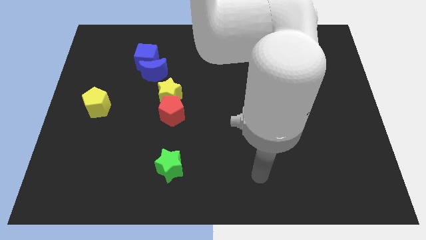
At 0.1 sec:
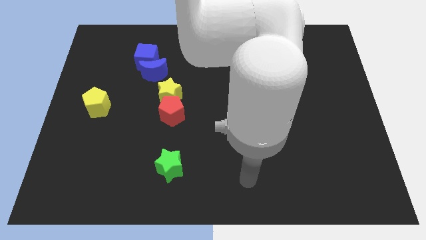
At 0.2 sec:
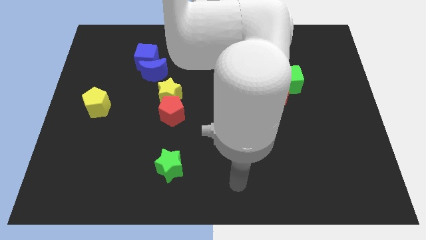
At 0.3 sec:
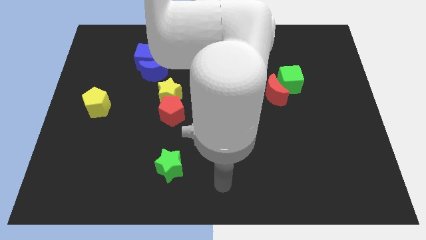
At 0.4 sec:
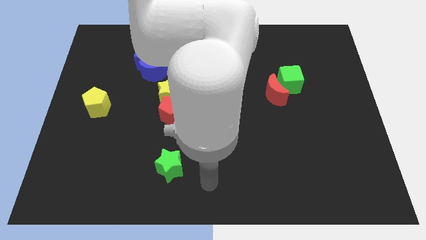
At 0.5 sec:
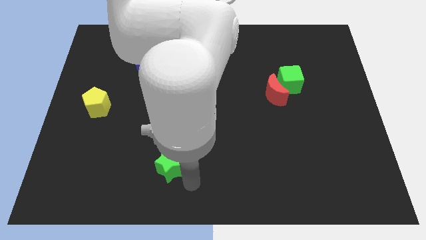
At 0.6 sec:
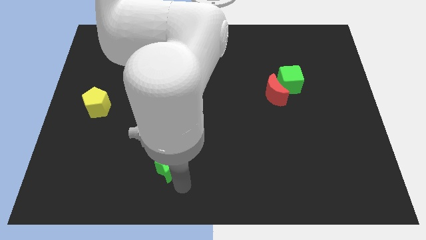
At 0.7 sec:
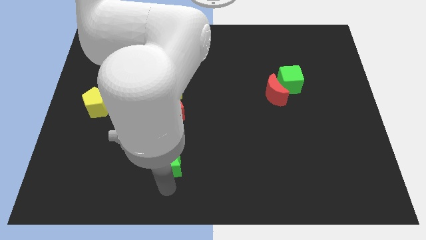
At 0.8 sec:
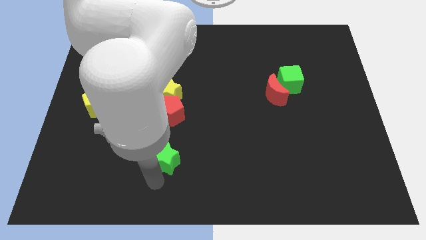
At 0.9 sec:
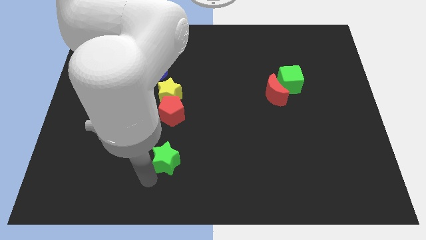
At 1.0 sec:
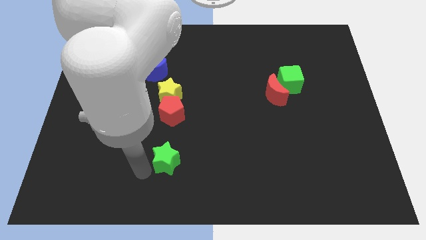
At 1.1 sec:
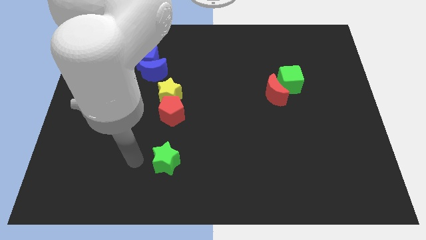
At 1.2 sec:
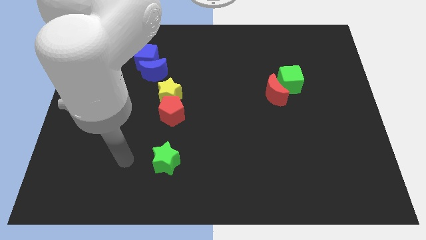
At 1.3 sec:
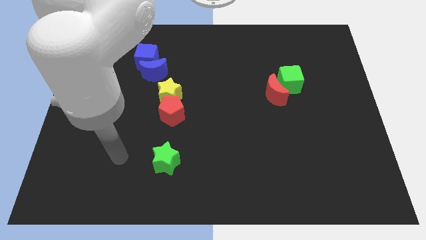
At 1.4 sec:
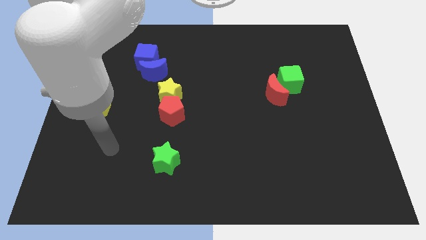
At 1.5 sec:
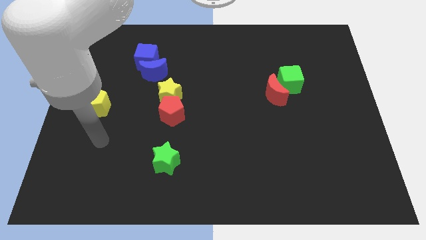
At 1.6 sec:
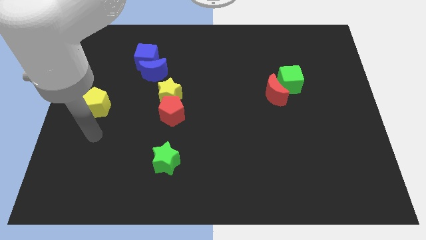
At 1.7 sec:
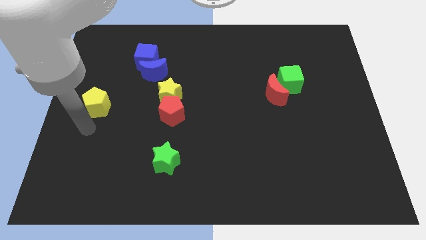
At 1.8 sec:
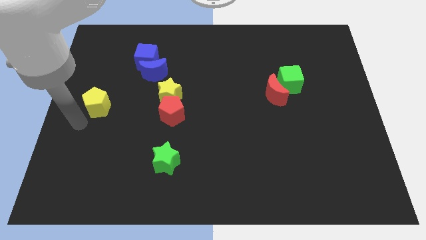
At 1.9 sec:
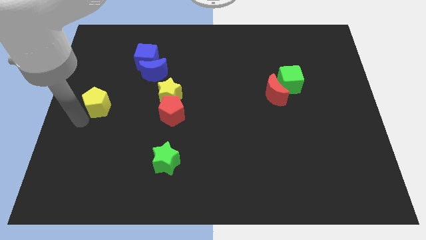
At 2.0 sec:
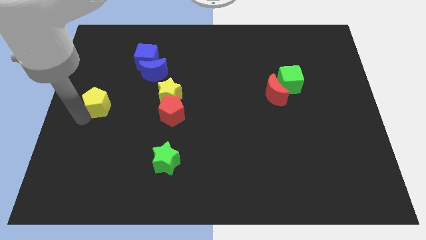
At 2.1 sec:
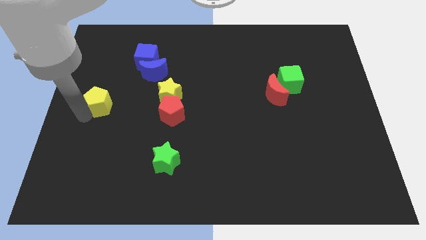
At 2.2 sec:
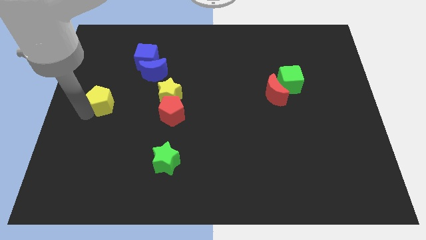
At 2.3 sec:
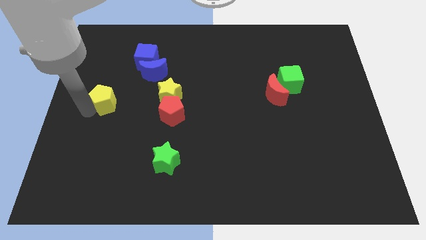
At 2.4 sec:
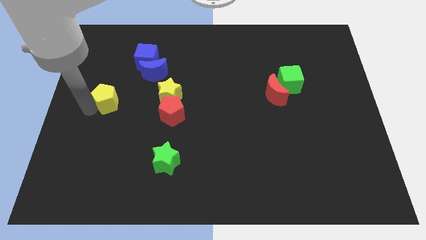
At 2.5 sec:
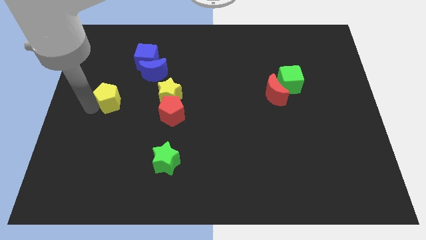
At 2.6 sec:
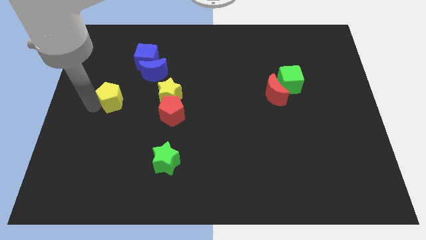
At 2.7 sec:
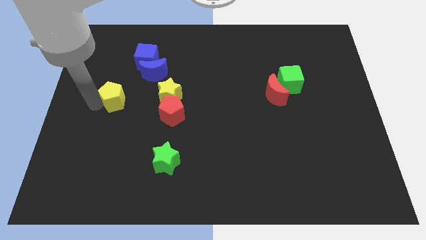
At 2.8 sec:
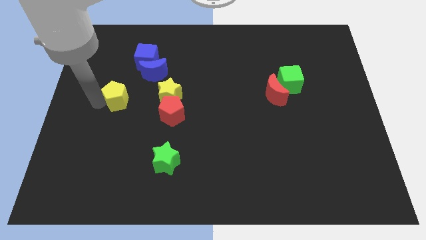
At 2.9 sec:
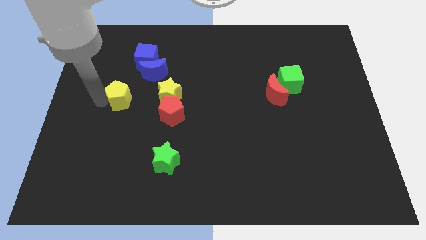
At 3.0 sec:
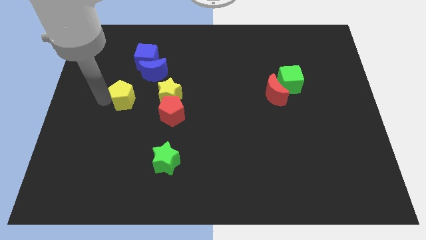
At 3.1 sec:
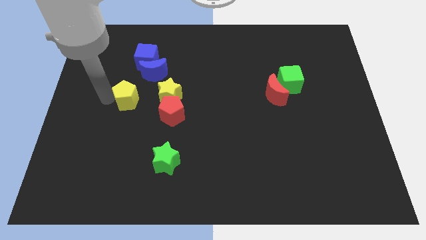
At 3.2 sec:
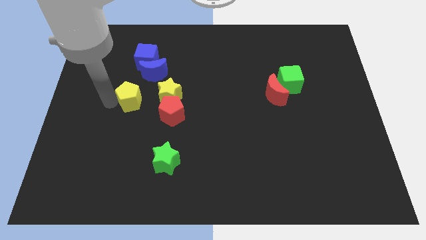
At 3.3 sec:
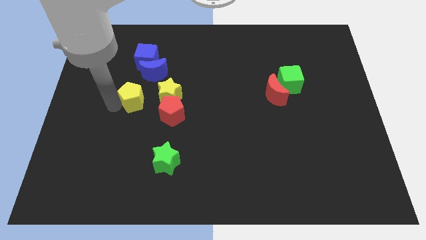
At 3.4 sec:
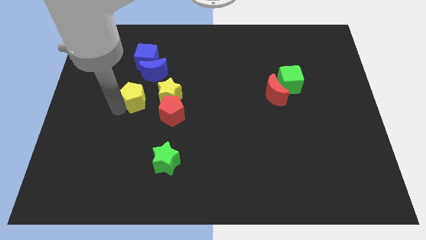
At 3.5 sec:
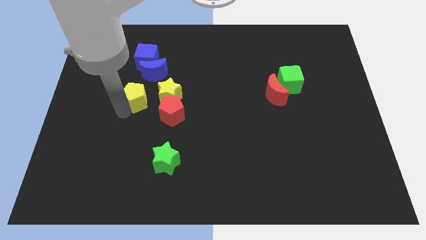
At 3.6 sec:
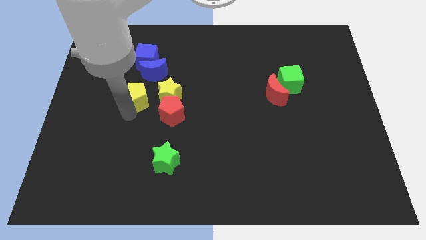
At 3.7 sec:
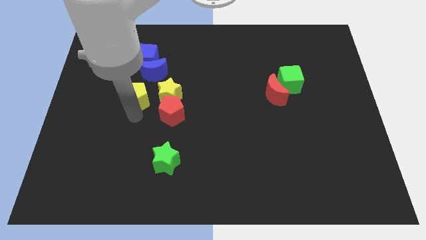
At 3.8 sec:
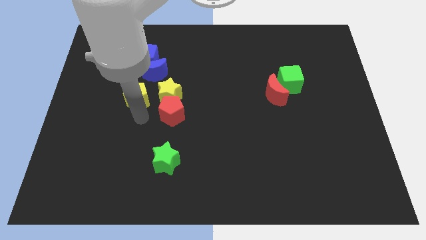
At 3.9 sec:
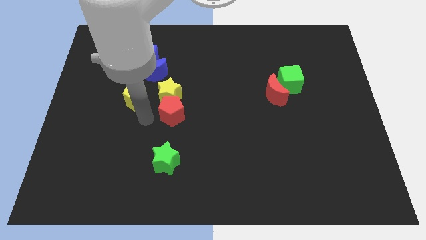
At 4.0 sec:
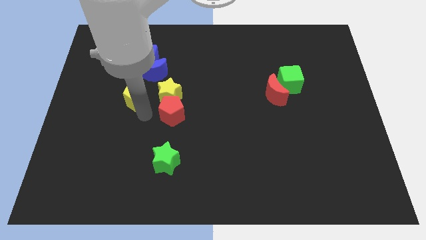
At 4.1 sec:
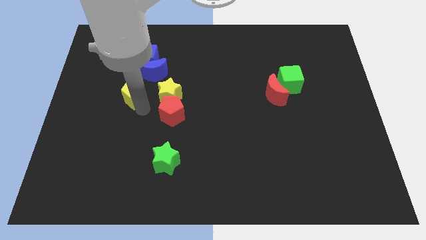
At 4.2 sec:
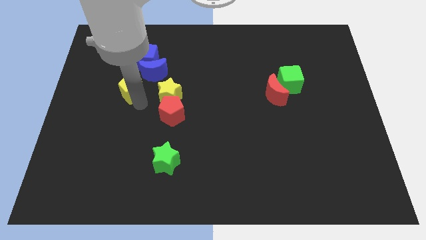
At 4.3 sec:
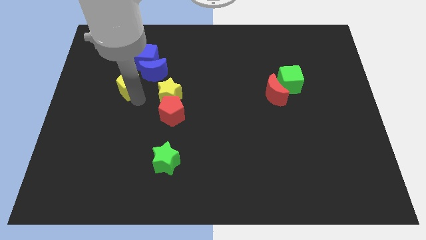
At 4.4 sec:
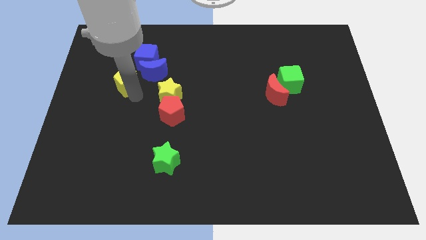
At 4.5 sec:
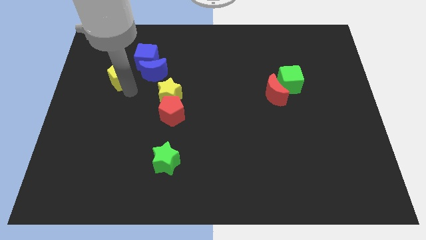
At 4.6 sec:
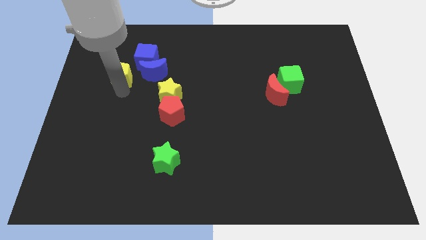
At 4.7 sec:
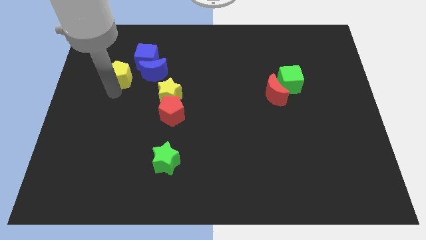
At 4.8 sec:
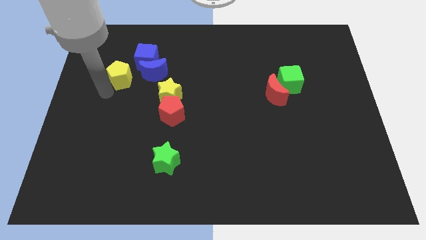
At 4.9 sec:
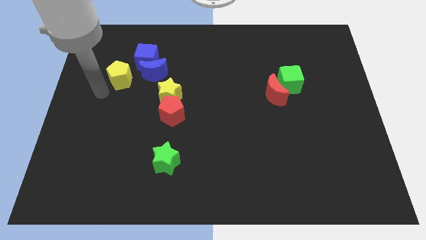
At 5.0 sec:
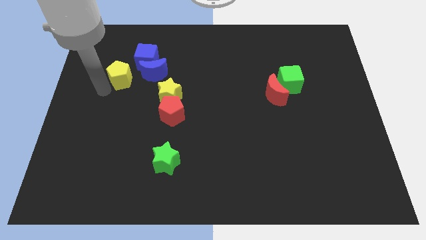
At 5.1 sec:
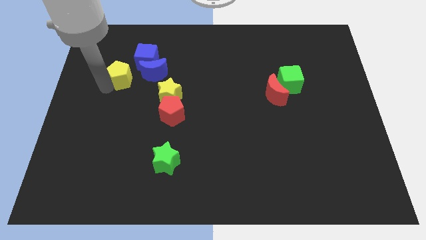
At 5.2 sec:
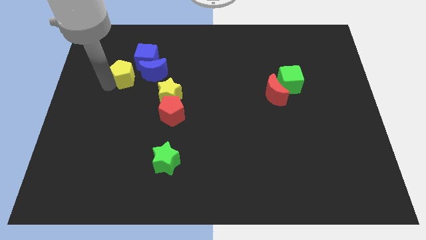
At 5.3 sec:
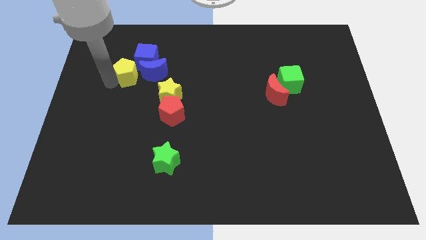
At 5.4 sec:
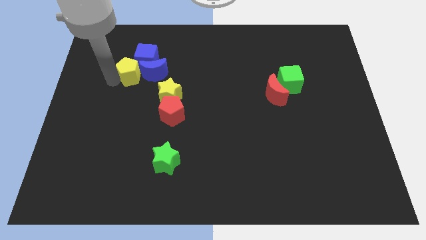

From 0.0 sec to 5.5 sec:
slide the yellow pentagon close to the blue cube

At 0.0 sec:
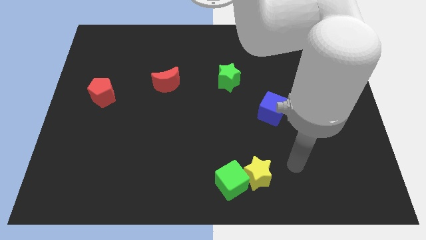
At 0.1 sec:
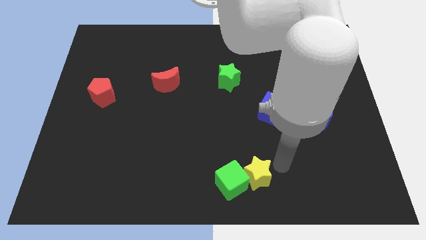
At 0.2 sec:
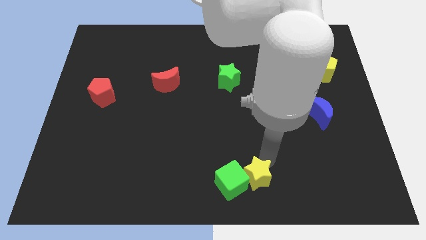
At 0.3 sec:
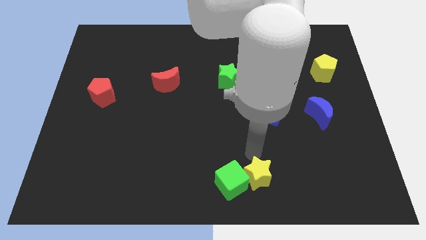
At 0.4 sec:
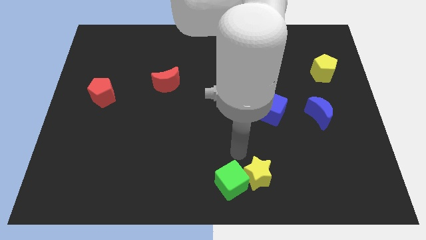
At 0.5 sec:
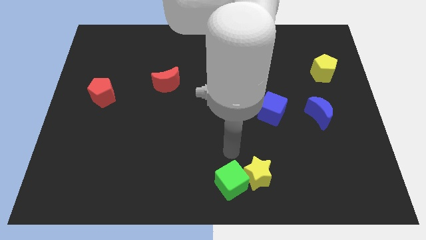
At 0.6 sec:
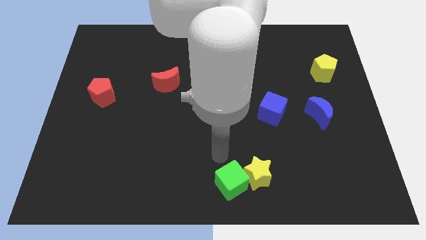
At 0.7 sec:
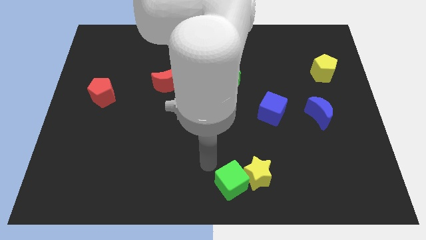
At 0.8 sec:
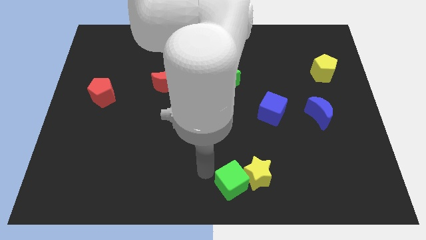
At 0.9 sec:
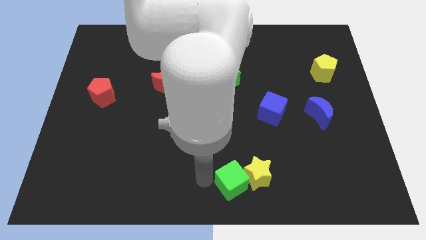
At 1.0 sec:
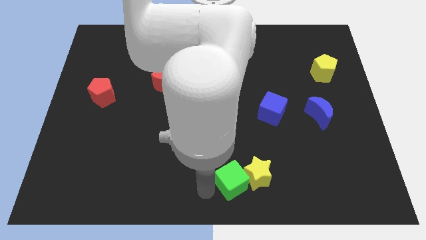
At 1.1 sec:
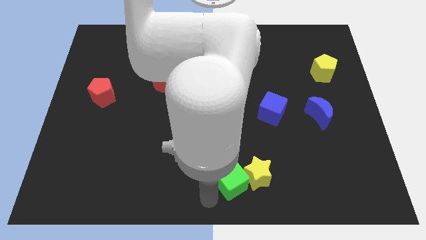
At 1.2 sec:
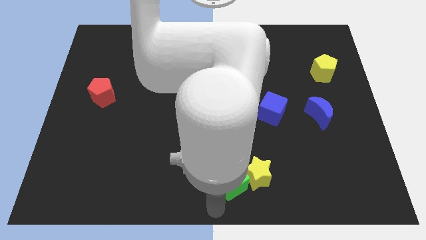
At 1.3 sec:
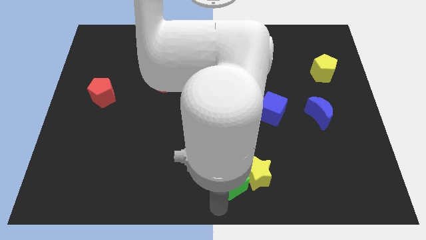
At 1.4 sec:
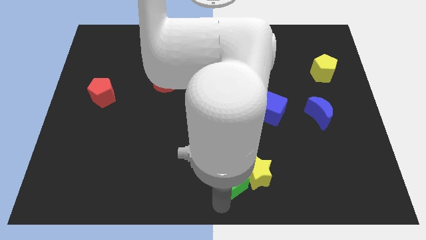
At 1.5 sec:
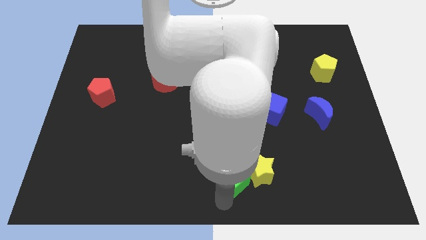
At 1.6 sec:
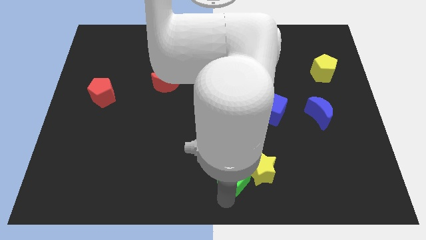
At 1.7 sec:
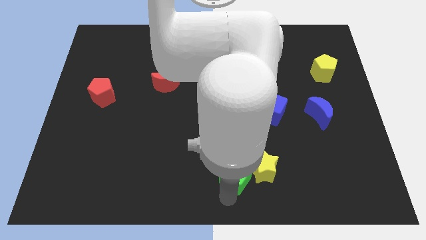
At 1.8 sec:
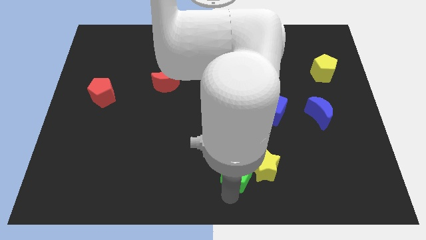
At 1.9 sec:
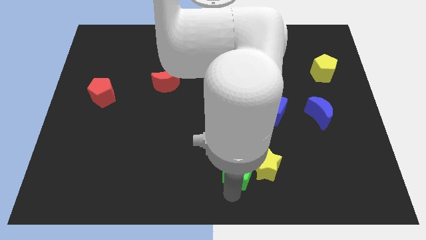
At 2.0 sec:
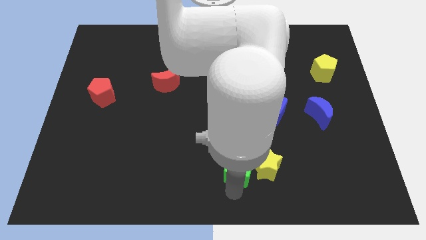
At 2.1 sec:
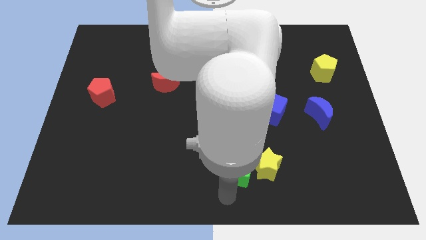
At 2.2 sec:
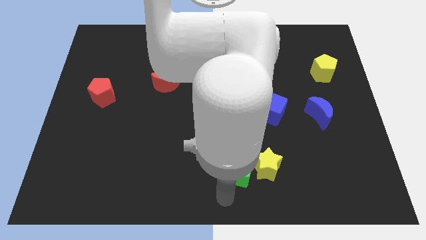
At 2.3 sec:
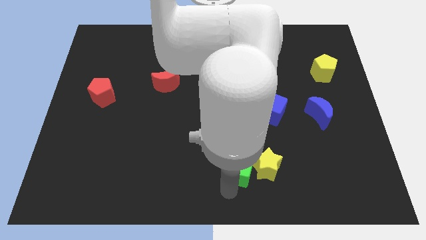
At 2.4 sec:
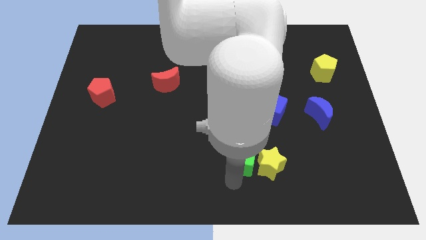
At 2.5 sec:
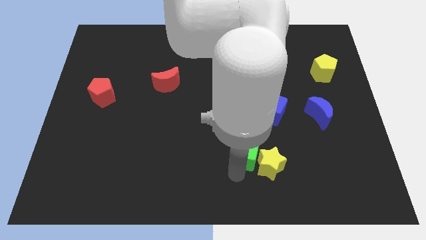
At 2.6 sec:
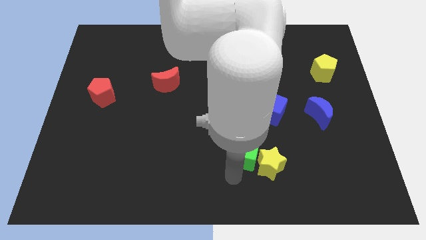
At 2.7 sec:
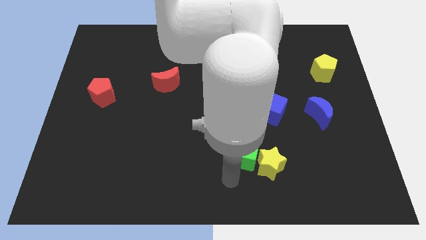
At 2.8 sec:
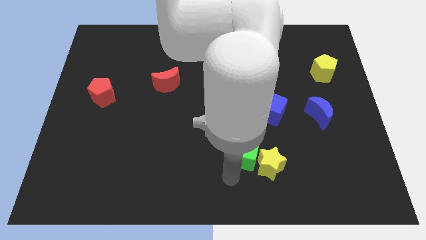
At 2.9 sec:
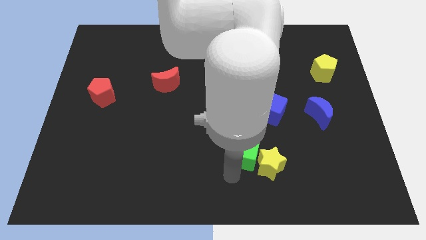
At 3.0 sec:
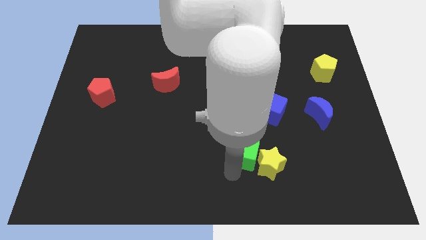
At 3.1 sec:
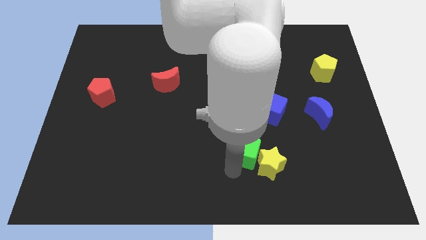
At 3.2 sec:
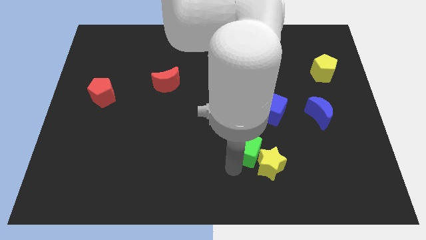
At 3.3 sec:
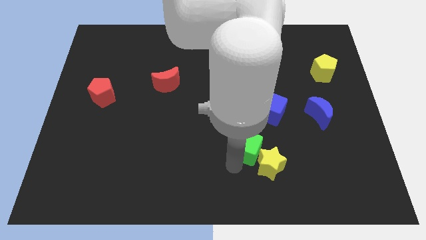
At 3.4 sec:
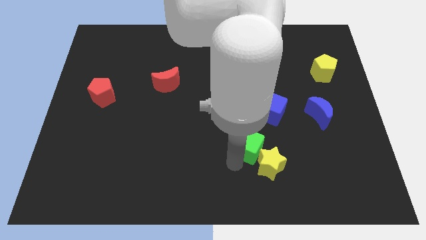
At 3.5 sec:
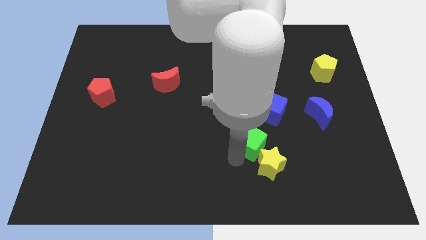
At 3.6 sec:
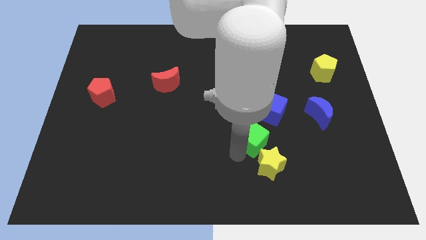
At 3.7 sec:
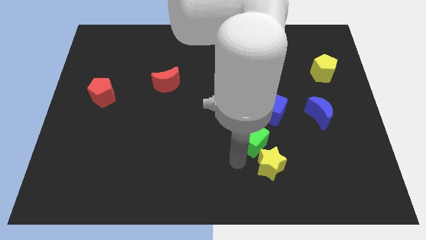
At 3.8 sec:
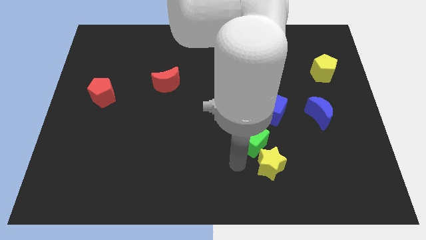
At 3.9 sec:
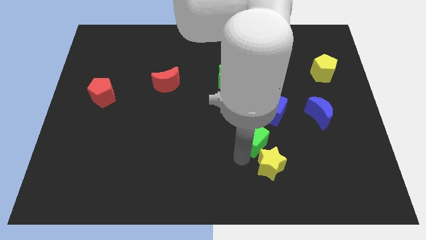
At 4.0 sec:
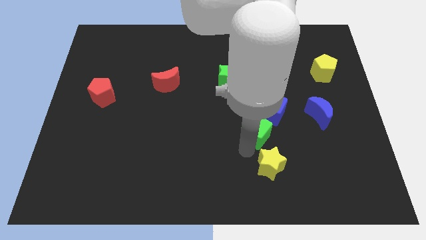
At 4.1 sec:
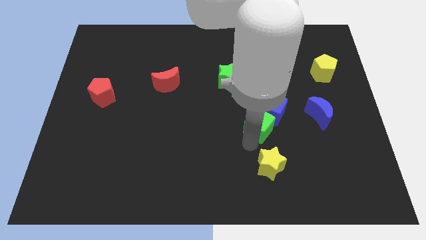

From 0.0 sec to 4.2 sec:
move the green cube to the blue cube
